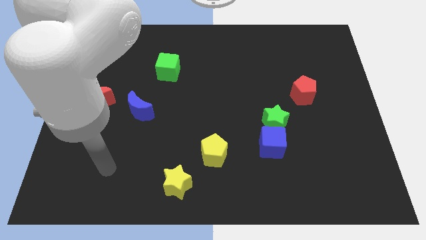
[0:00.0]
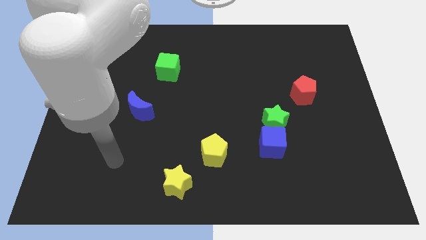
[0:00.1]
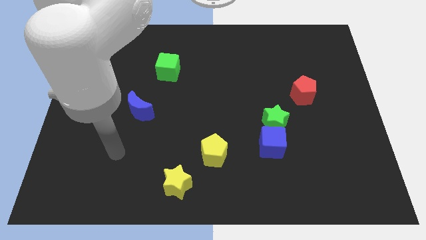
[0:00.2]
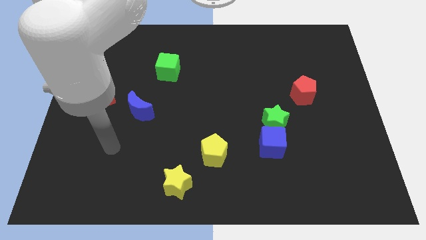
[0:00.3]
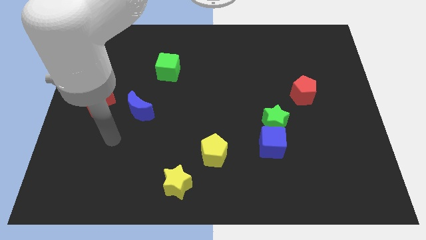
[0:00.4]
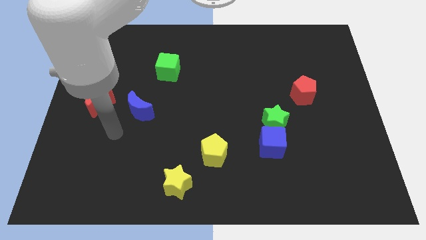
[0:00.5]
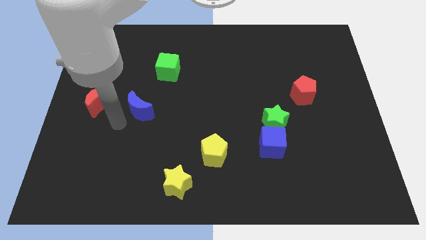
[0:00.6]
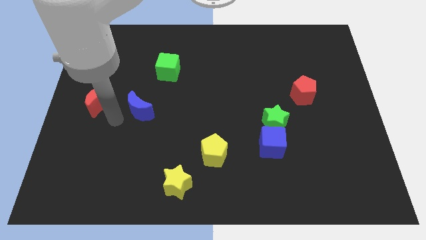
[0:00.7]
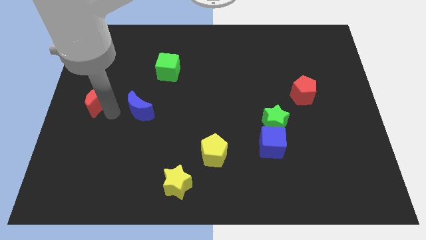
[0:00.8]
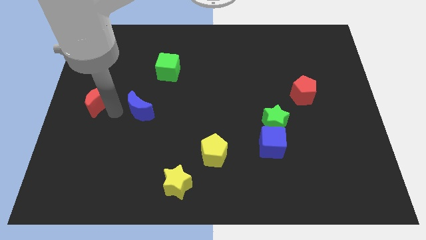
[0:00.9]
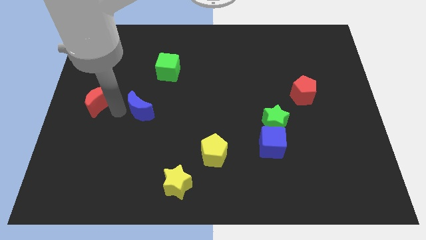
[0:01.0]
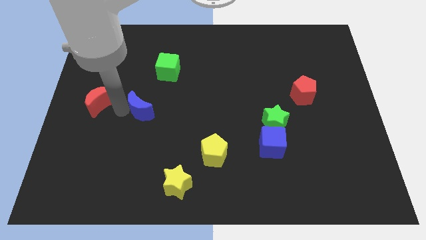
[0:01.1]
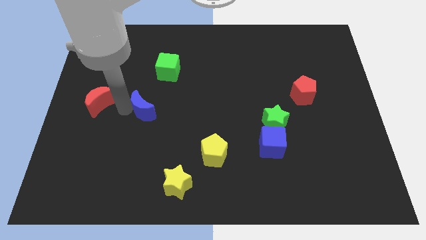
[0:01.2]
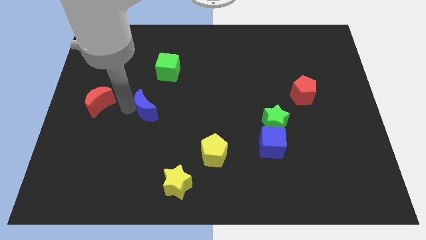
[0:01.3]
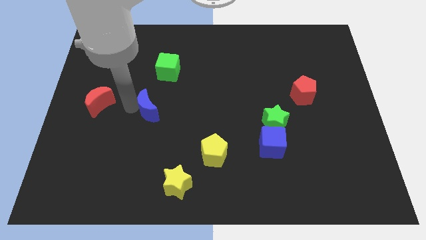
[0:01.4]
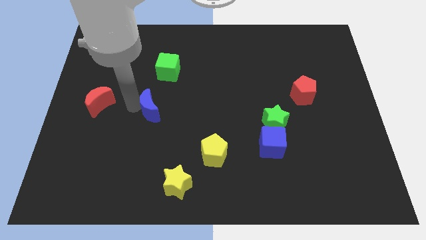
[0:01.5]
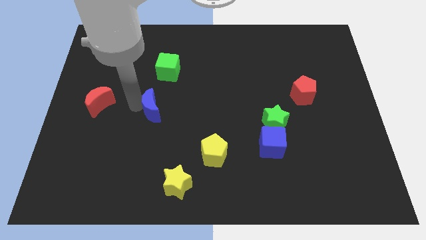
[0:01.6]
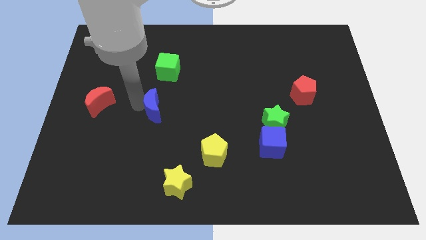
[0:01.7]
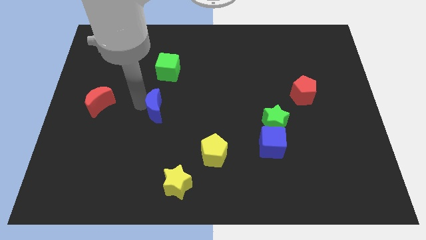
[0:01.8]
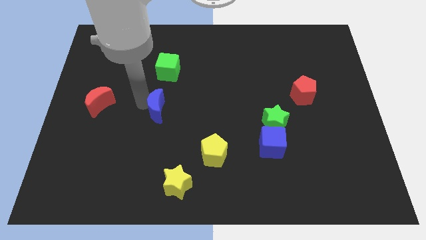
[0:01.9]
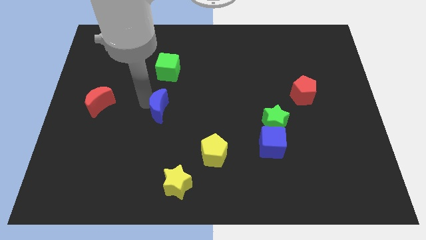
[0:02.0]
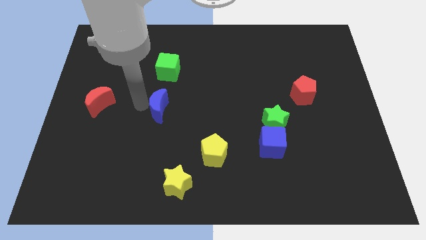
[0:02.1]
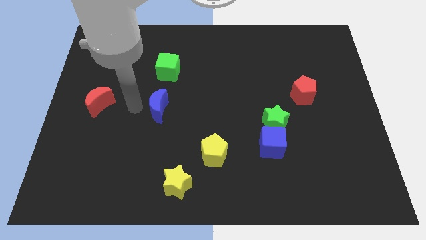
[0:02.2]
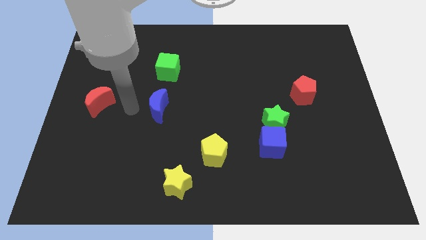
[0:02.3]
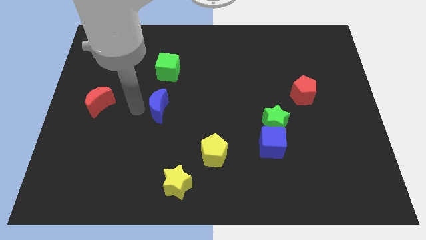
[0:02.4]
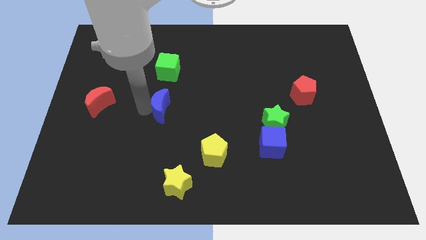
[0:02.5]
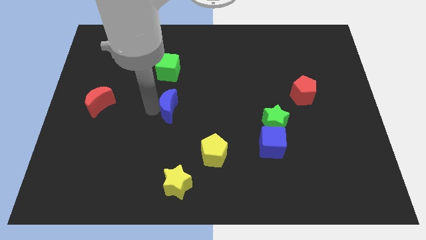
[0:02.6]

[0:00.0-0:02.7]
slightly move the blue moon to the right

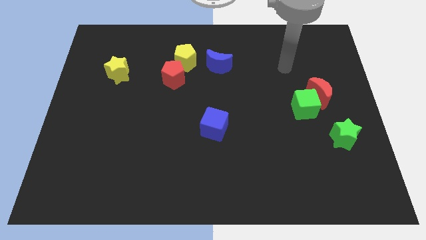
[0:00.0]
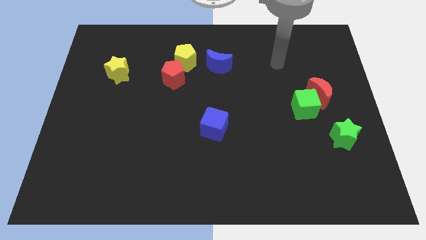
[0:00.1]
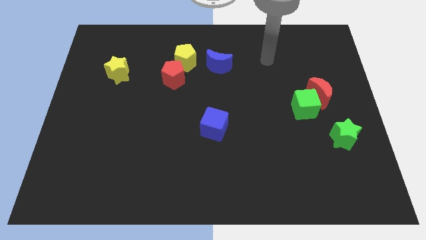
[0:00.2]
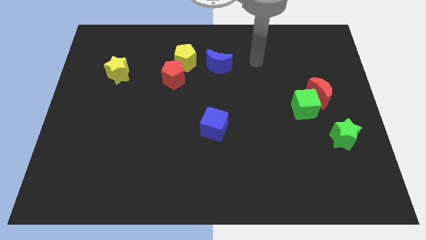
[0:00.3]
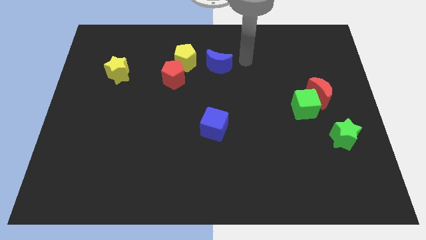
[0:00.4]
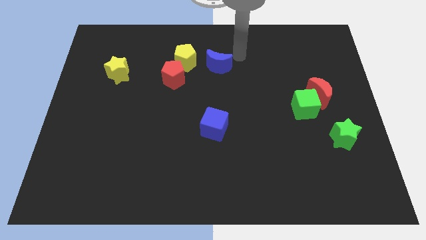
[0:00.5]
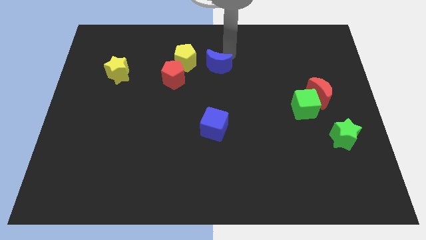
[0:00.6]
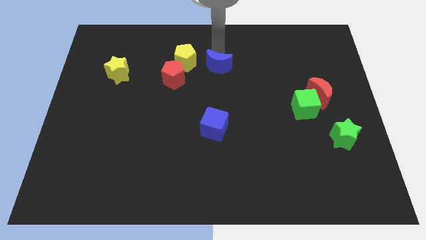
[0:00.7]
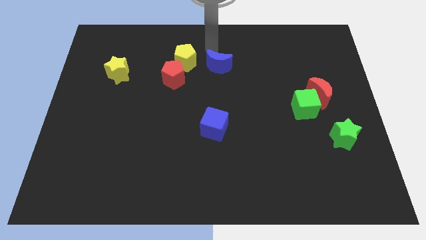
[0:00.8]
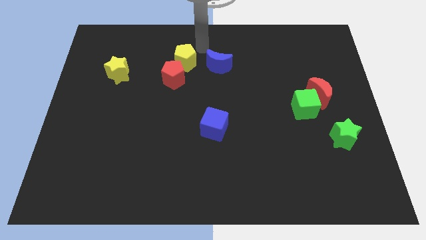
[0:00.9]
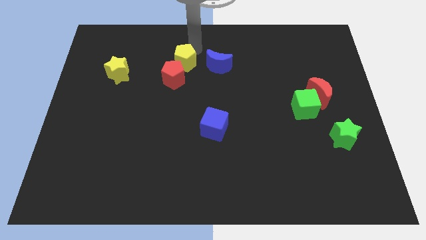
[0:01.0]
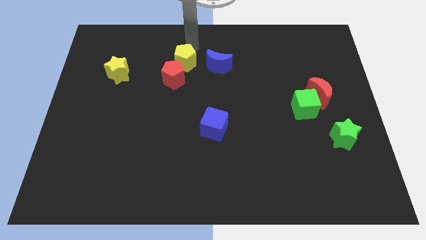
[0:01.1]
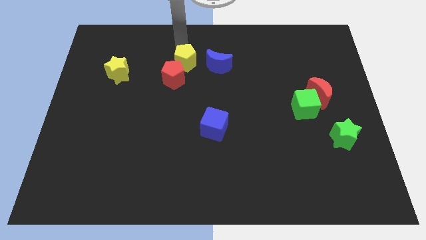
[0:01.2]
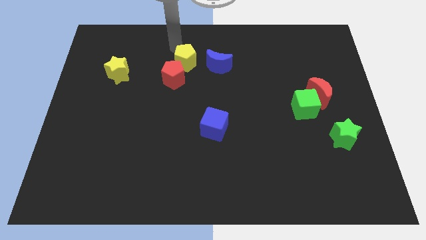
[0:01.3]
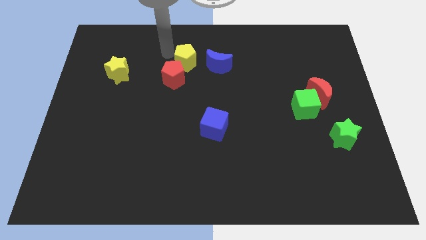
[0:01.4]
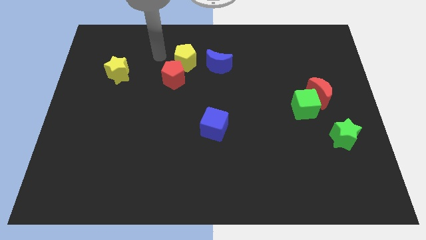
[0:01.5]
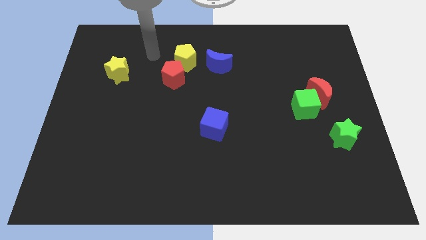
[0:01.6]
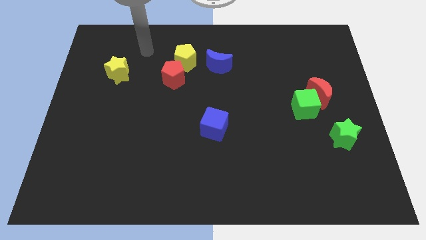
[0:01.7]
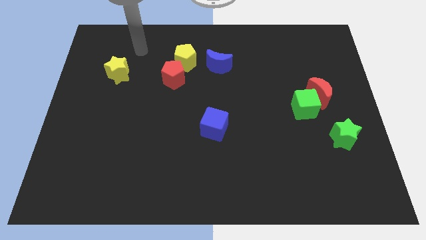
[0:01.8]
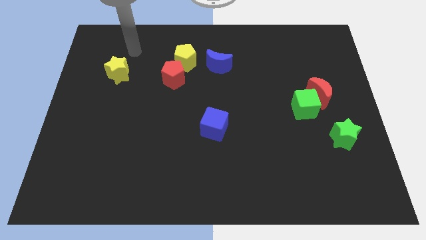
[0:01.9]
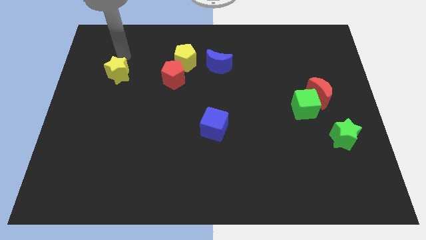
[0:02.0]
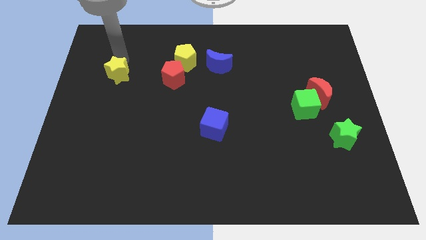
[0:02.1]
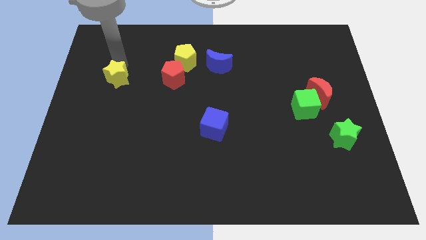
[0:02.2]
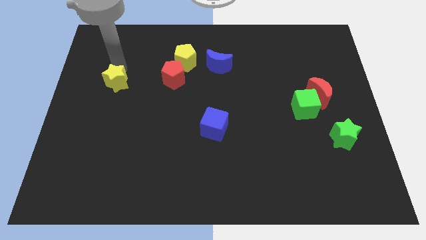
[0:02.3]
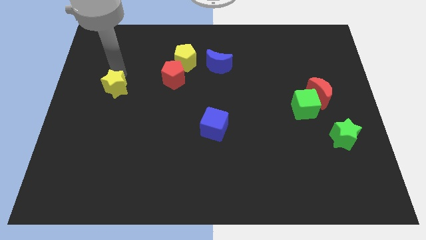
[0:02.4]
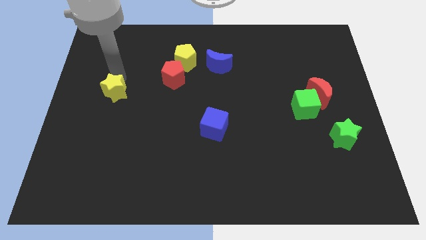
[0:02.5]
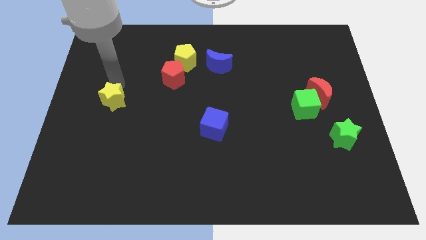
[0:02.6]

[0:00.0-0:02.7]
slightly move the yellow star downwards

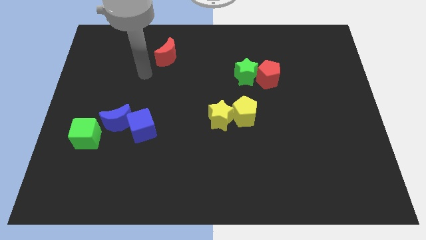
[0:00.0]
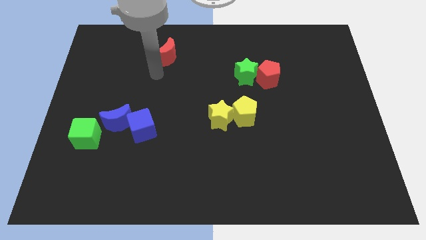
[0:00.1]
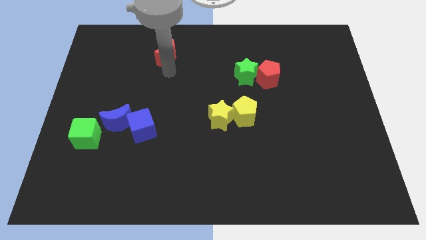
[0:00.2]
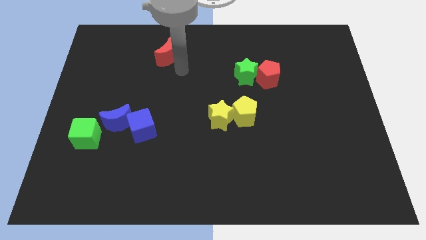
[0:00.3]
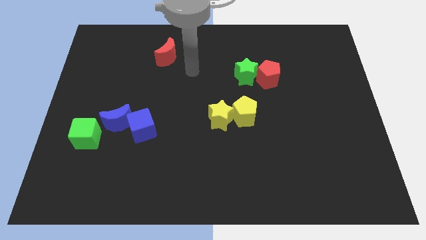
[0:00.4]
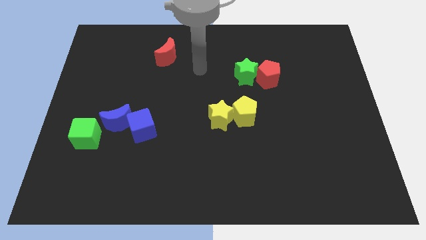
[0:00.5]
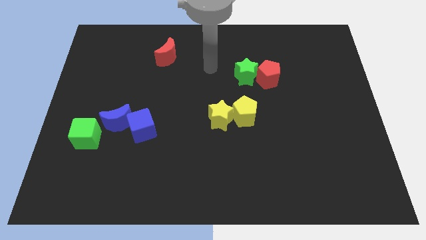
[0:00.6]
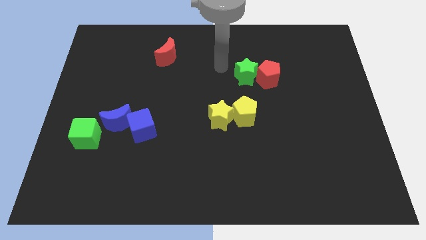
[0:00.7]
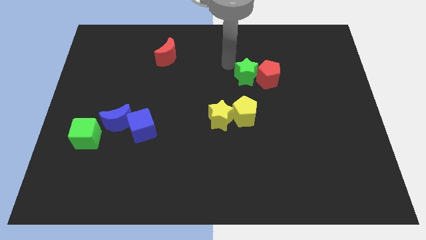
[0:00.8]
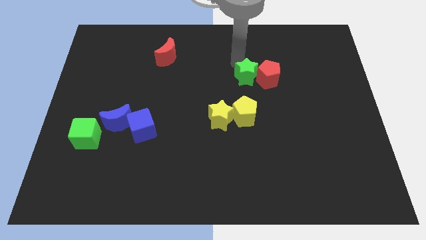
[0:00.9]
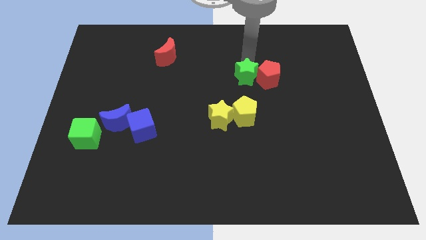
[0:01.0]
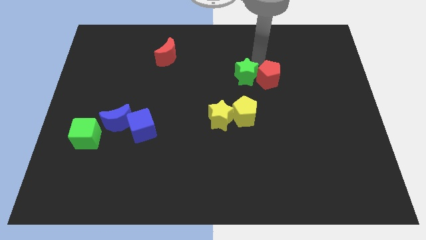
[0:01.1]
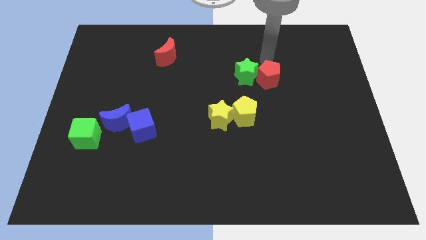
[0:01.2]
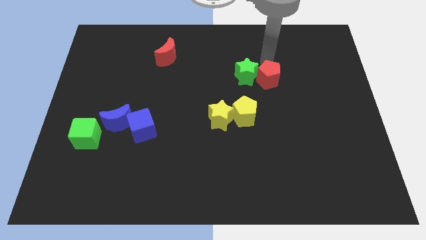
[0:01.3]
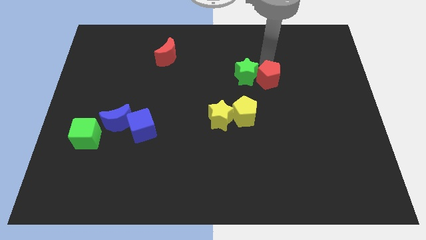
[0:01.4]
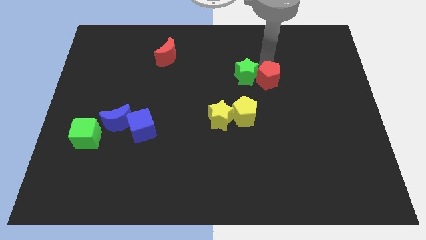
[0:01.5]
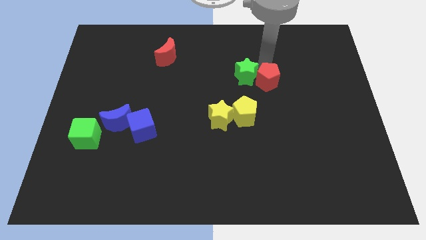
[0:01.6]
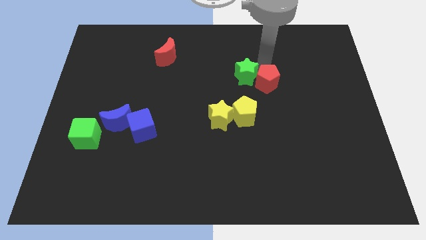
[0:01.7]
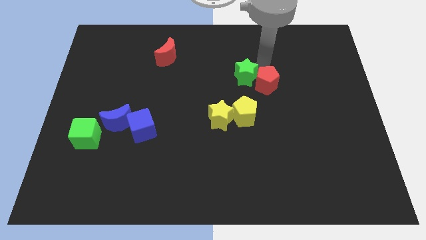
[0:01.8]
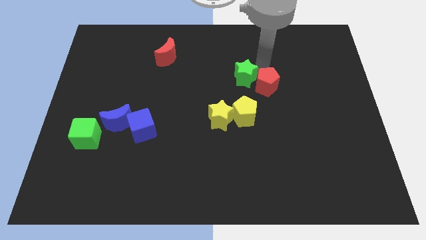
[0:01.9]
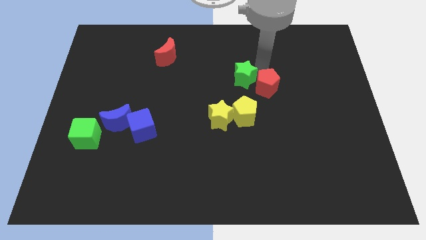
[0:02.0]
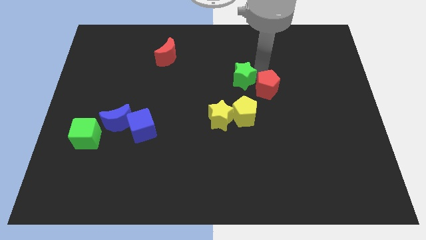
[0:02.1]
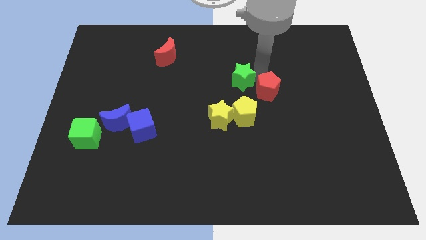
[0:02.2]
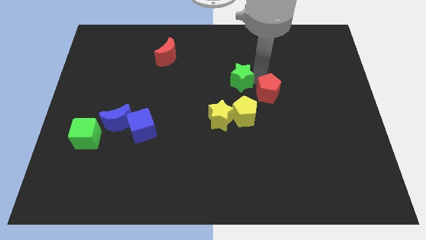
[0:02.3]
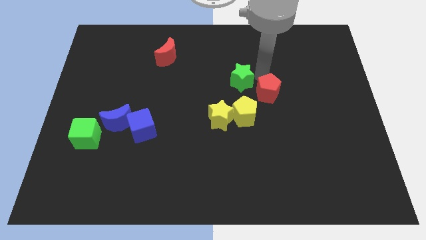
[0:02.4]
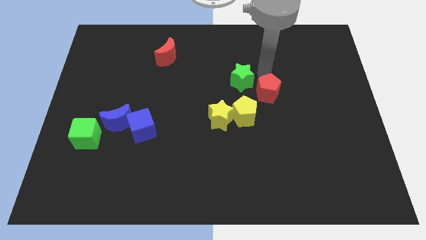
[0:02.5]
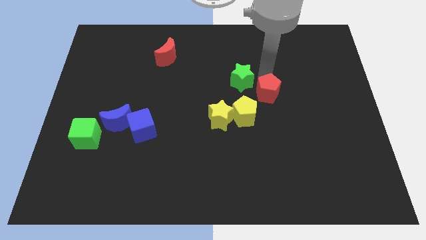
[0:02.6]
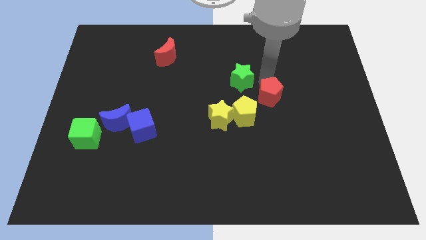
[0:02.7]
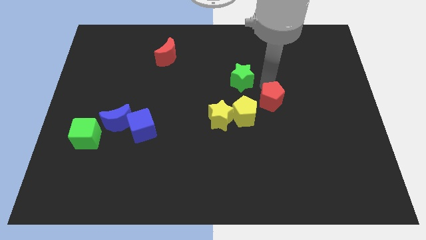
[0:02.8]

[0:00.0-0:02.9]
push the red pentagon somewhat down
